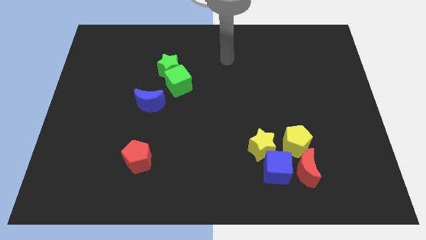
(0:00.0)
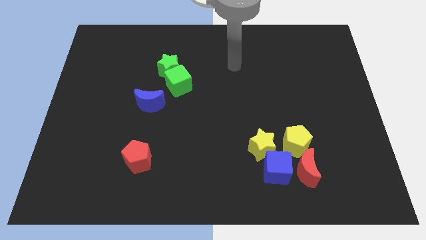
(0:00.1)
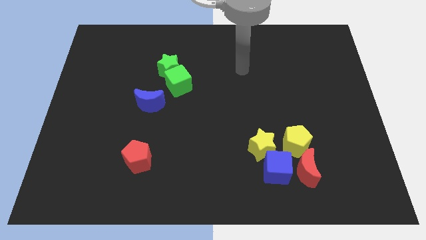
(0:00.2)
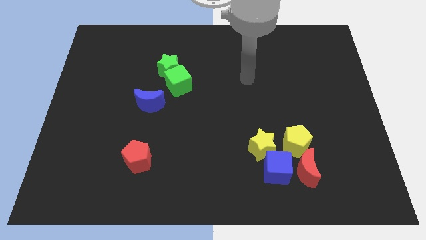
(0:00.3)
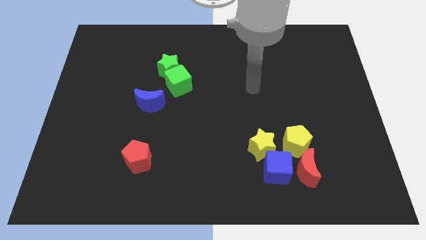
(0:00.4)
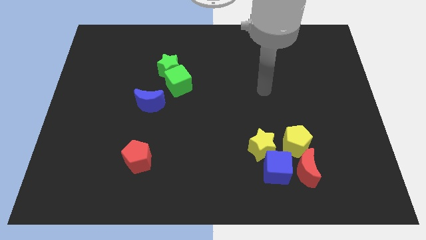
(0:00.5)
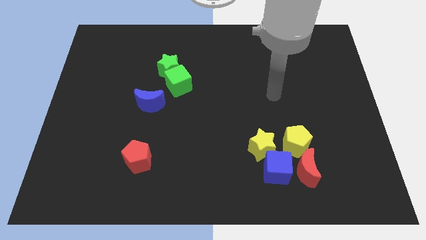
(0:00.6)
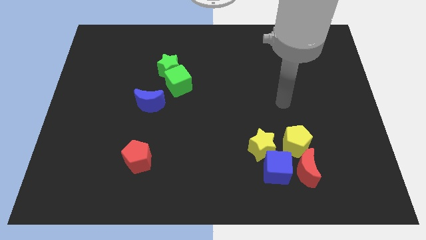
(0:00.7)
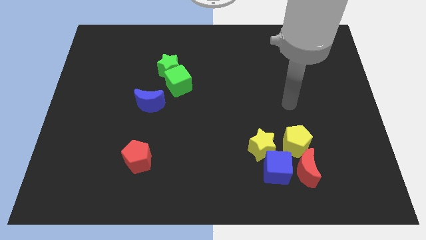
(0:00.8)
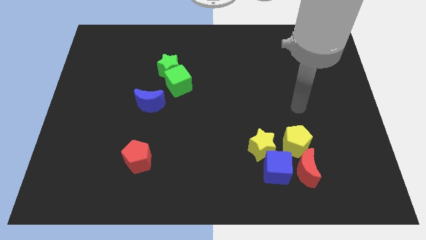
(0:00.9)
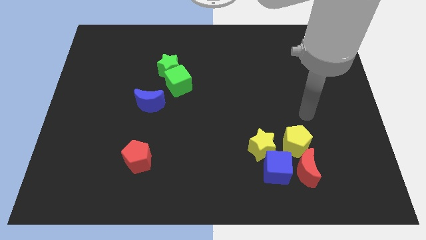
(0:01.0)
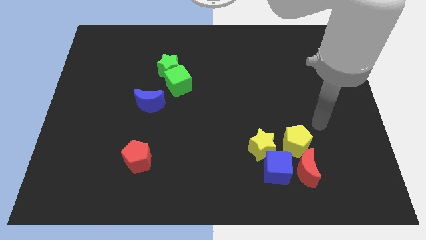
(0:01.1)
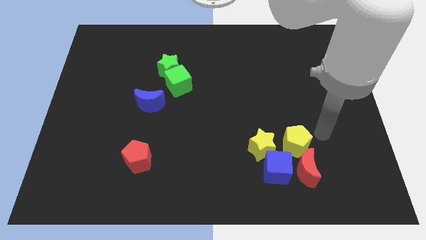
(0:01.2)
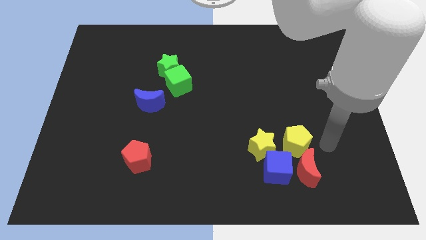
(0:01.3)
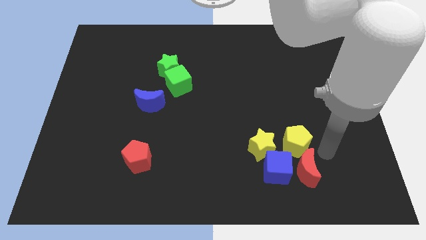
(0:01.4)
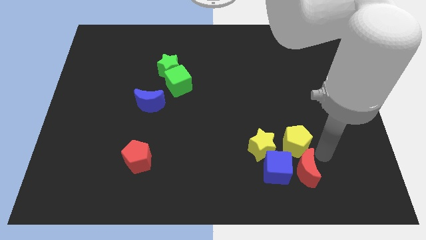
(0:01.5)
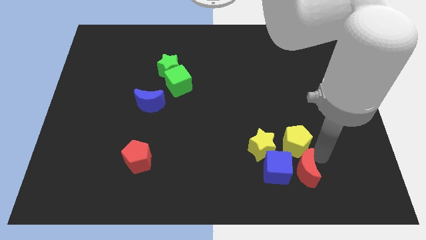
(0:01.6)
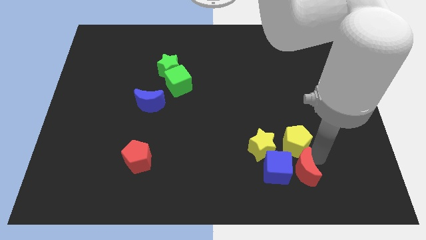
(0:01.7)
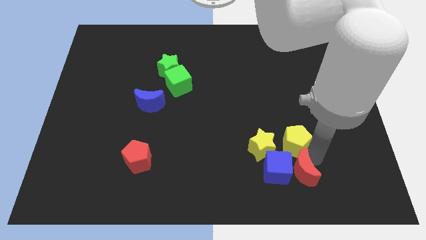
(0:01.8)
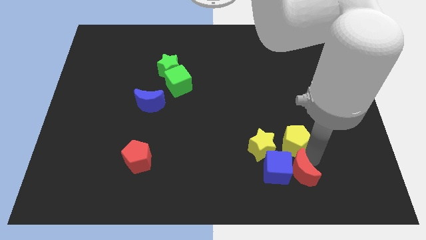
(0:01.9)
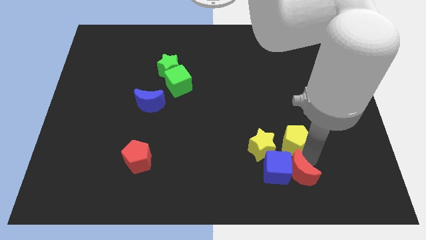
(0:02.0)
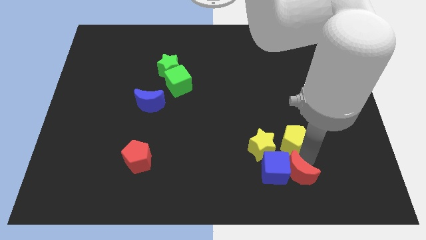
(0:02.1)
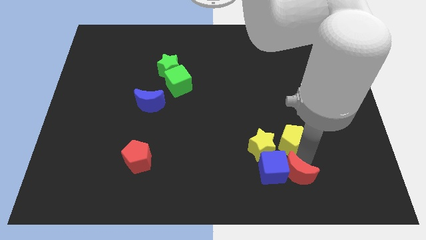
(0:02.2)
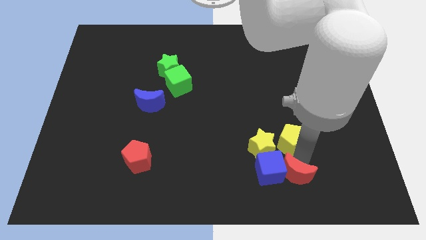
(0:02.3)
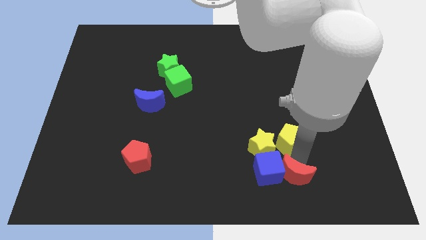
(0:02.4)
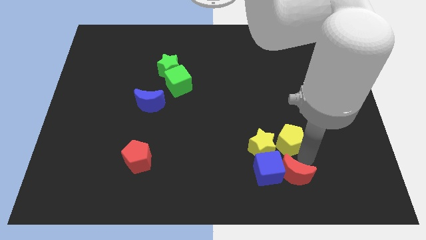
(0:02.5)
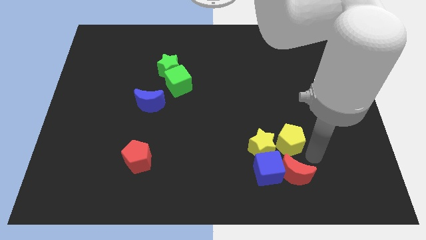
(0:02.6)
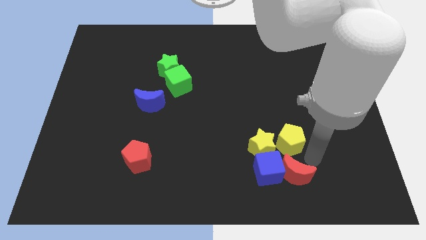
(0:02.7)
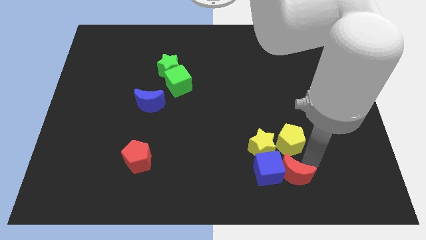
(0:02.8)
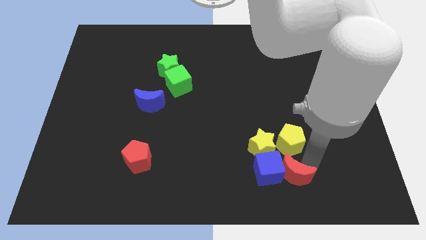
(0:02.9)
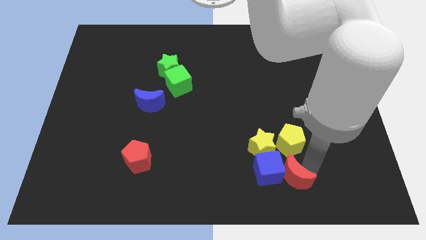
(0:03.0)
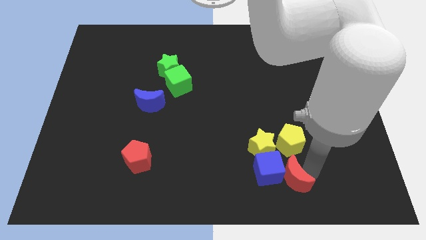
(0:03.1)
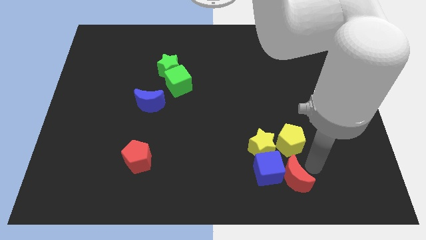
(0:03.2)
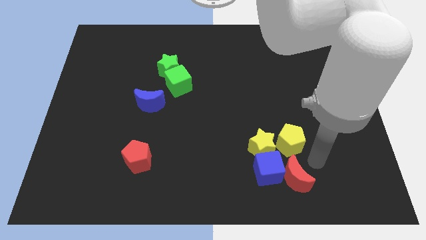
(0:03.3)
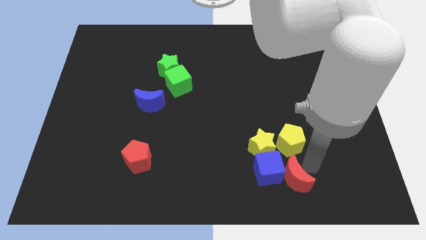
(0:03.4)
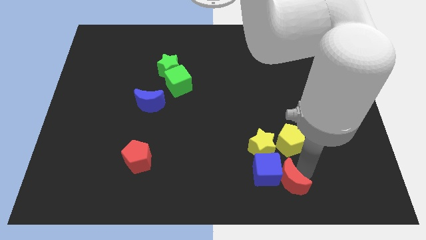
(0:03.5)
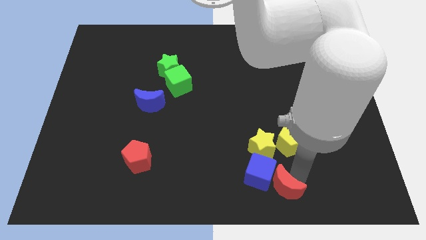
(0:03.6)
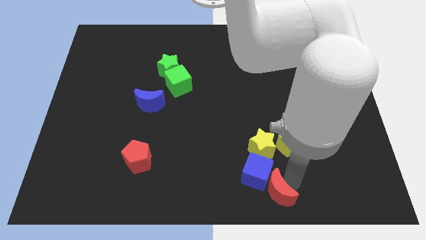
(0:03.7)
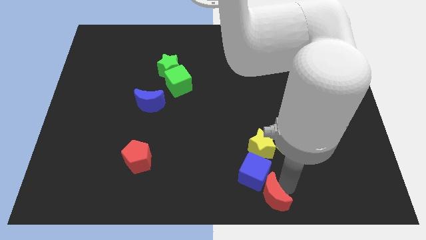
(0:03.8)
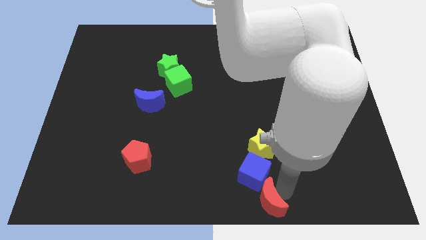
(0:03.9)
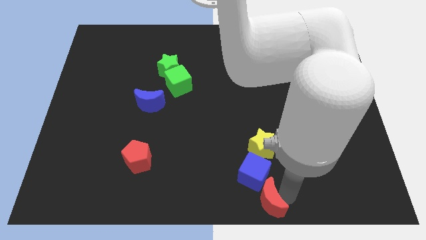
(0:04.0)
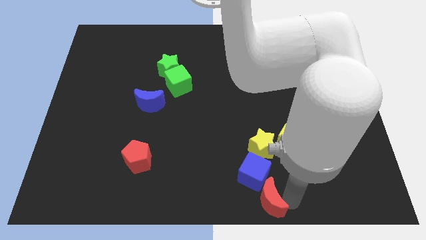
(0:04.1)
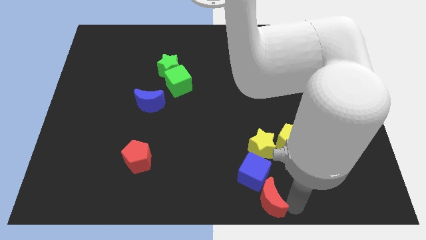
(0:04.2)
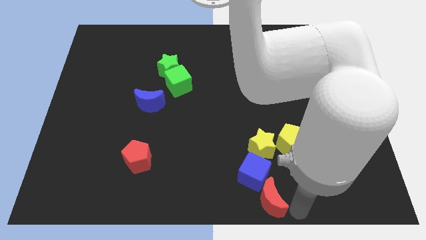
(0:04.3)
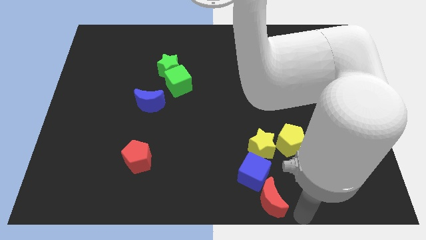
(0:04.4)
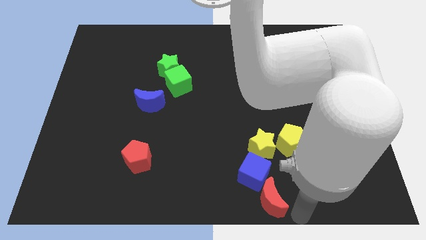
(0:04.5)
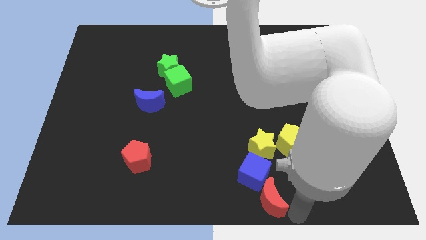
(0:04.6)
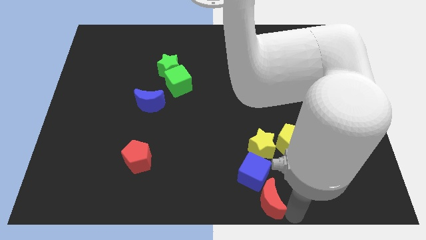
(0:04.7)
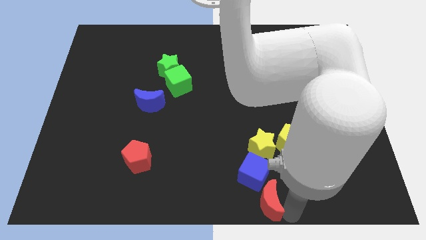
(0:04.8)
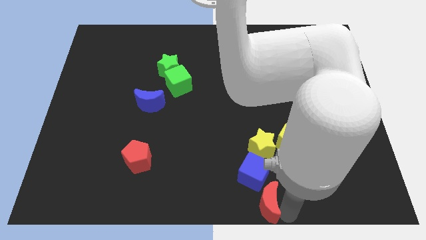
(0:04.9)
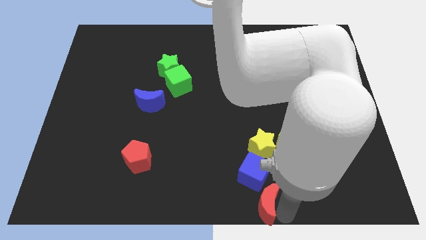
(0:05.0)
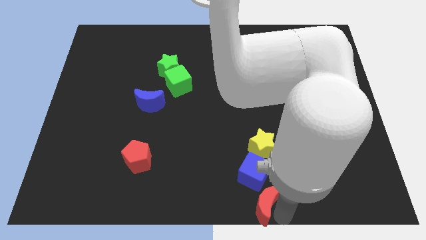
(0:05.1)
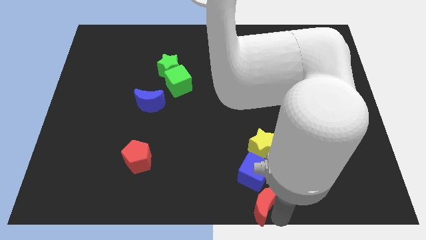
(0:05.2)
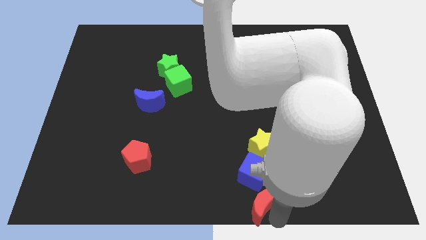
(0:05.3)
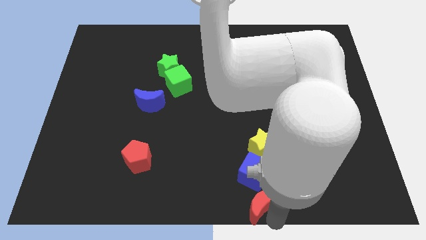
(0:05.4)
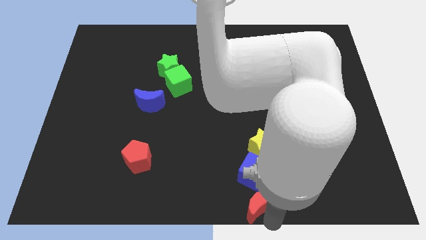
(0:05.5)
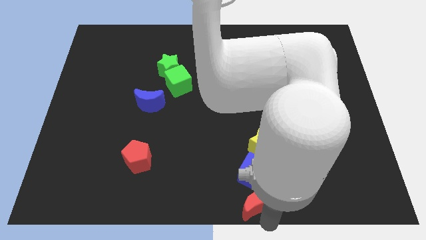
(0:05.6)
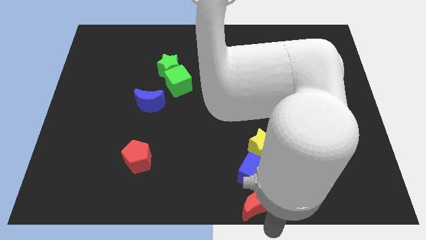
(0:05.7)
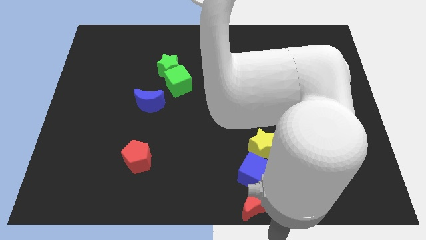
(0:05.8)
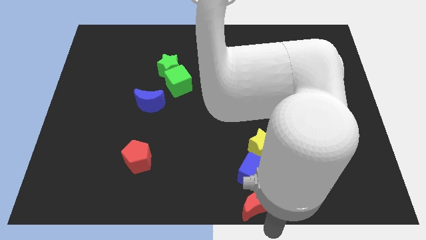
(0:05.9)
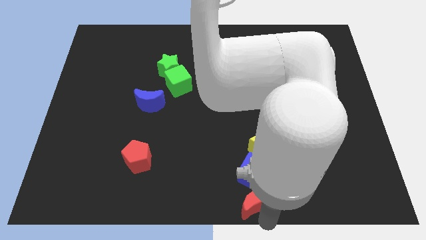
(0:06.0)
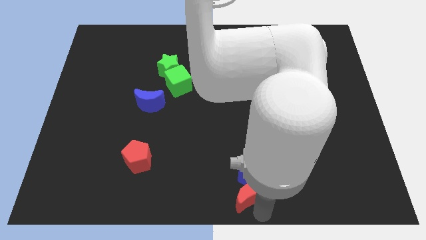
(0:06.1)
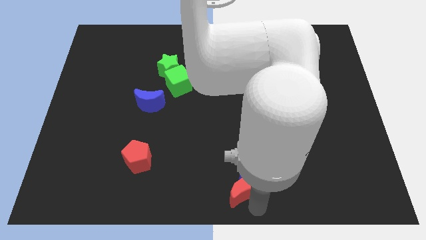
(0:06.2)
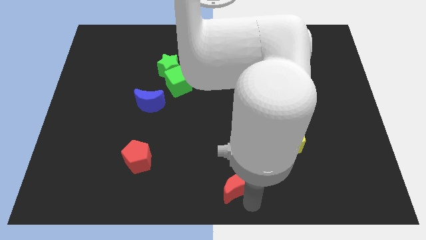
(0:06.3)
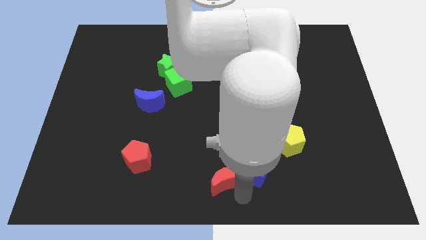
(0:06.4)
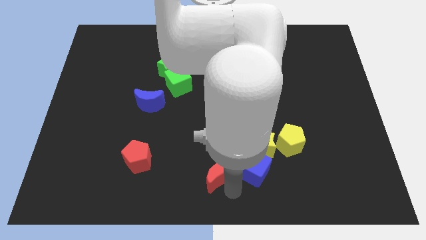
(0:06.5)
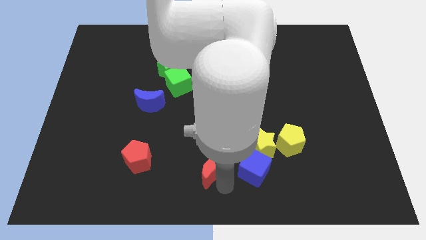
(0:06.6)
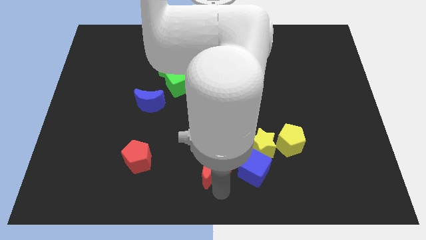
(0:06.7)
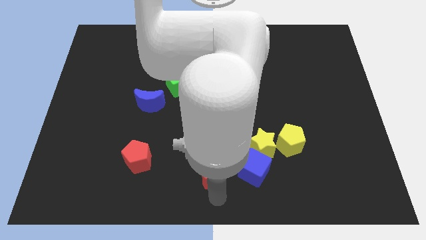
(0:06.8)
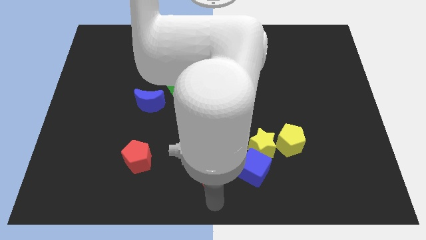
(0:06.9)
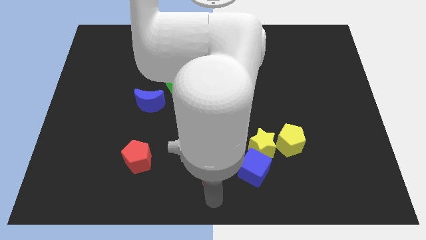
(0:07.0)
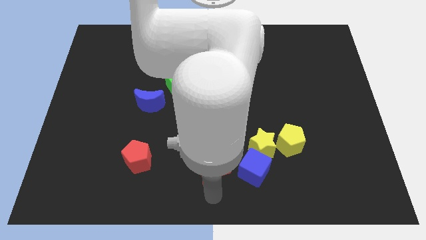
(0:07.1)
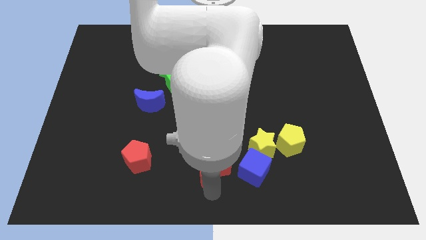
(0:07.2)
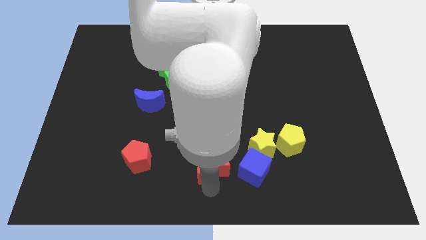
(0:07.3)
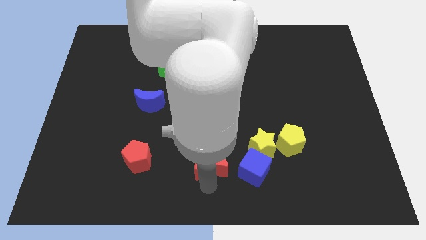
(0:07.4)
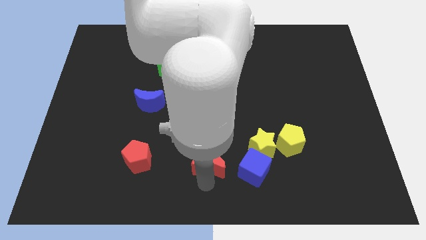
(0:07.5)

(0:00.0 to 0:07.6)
slide the red moon just left of the yellow star

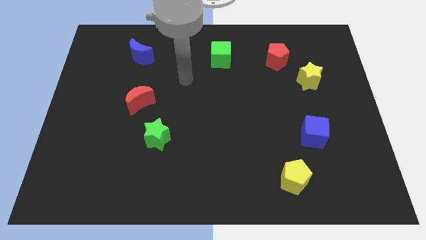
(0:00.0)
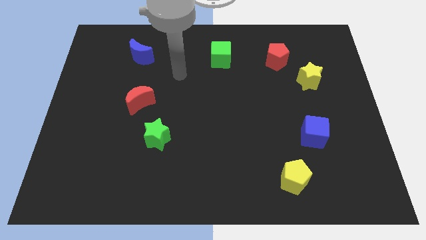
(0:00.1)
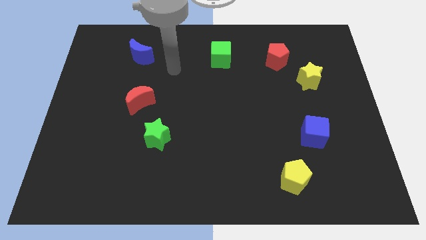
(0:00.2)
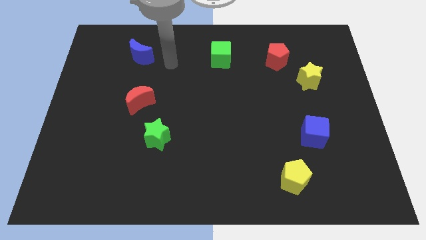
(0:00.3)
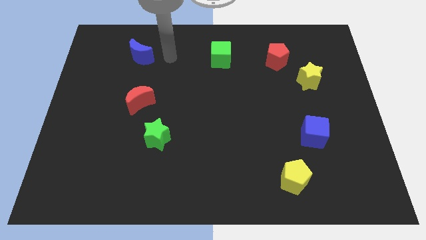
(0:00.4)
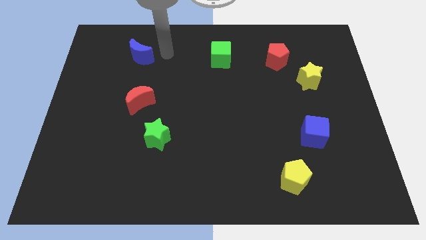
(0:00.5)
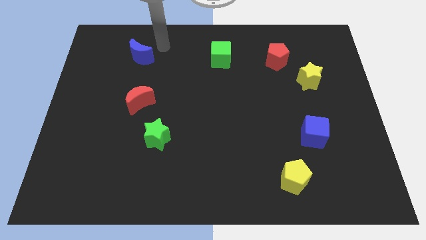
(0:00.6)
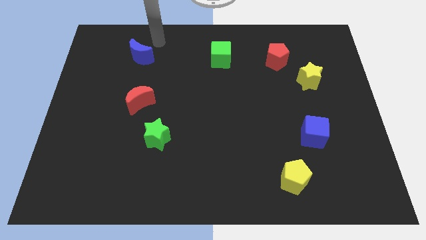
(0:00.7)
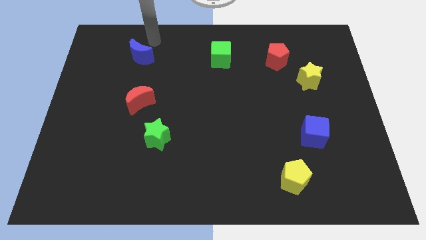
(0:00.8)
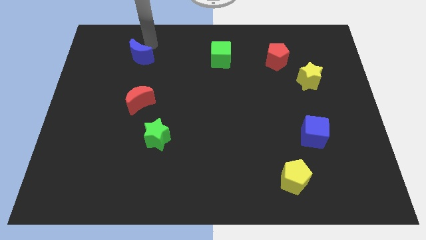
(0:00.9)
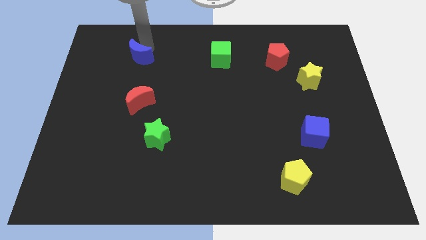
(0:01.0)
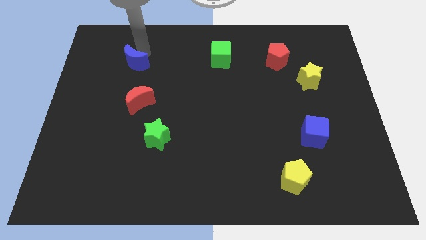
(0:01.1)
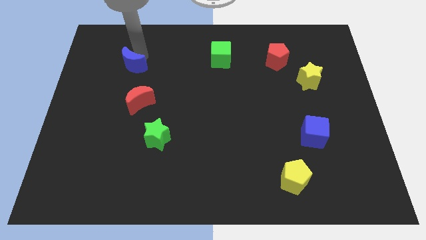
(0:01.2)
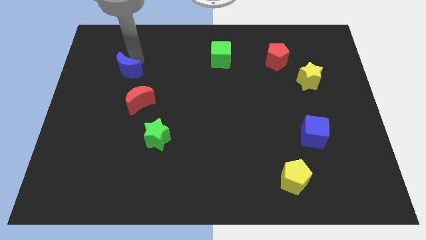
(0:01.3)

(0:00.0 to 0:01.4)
push the blue moon diagonally up and to the left of the red moon
